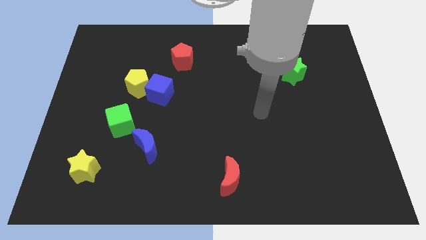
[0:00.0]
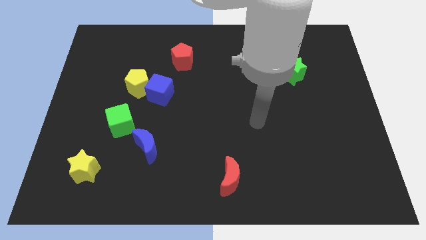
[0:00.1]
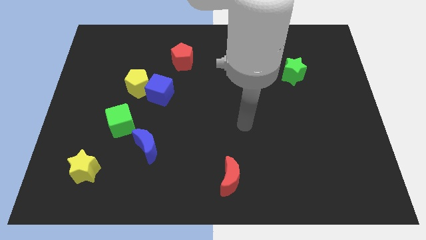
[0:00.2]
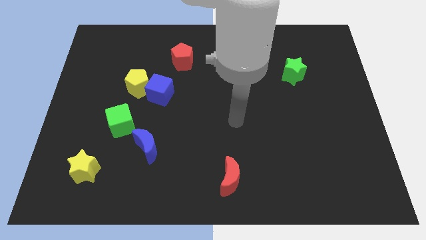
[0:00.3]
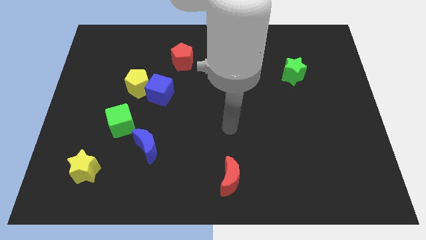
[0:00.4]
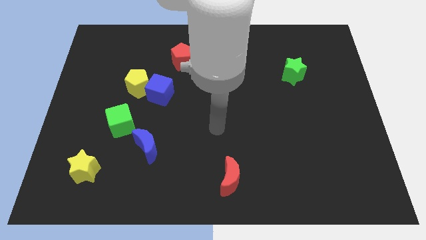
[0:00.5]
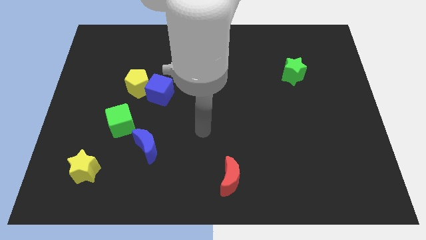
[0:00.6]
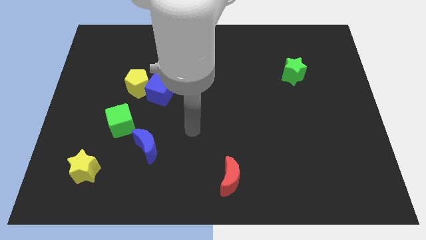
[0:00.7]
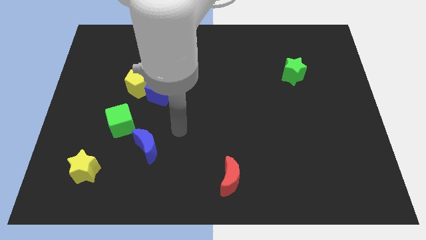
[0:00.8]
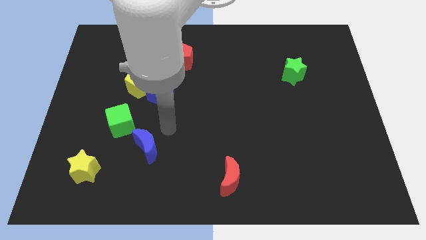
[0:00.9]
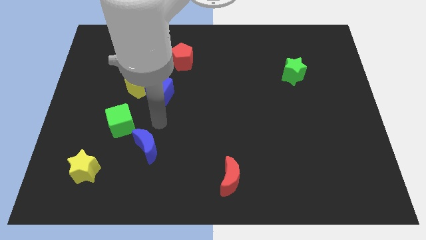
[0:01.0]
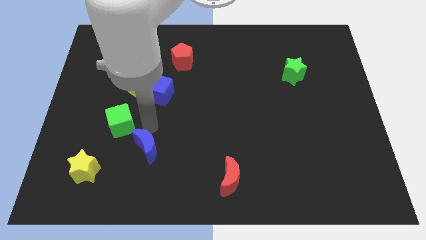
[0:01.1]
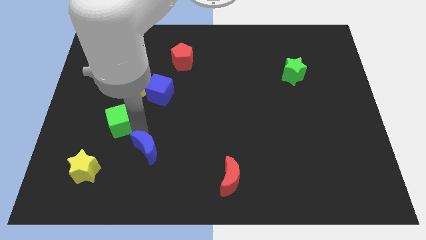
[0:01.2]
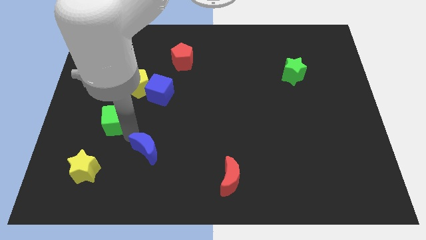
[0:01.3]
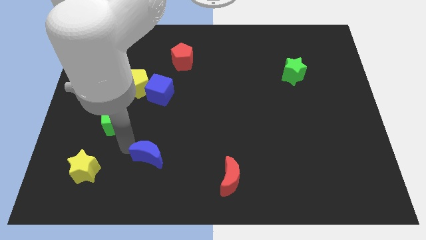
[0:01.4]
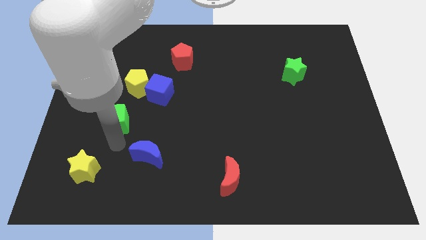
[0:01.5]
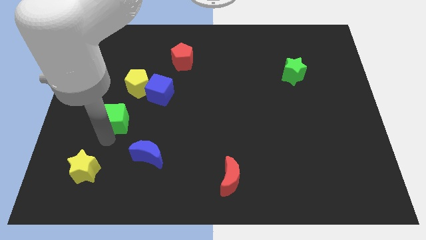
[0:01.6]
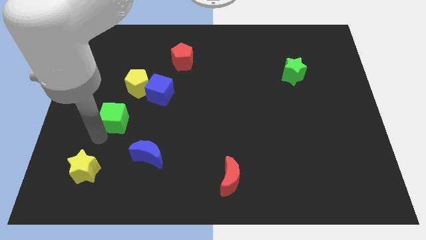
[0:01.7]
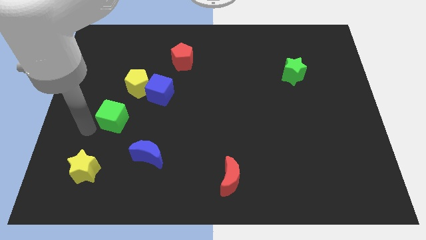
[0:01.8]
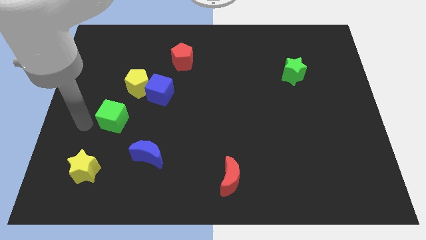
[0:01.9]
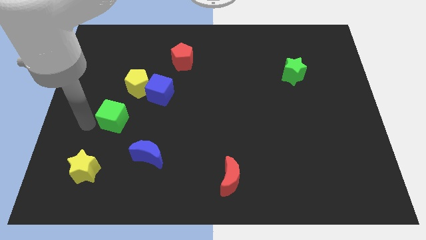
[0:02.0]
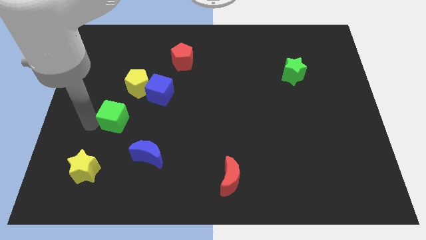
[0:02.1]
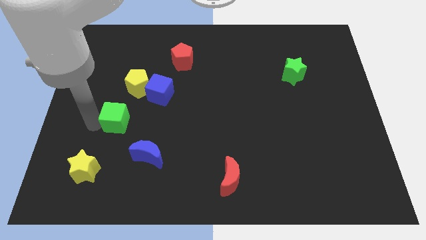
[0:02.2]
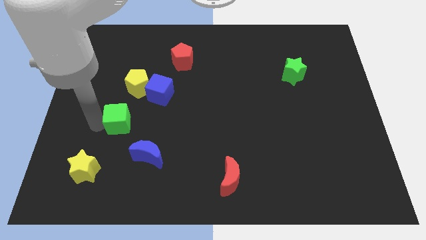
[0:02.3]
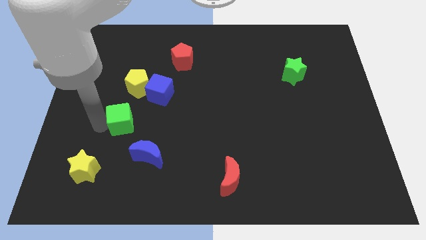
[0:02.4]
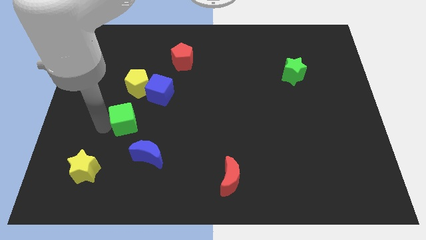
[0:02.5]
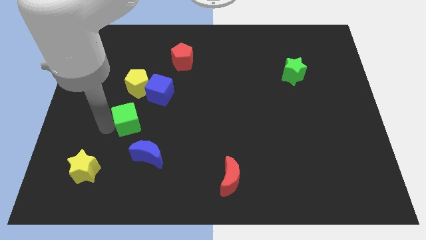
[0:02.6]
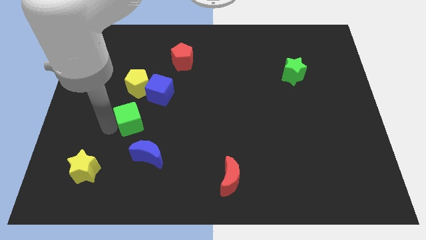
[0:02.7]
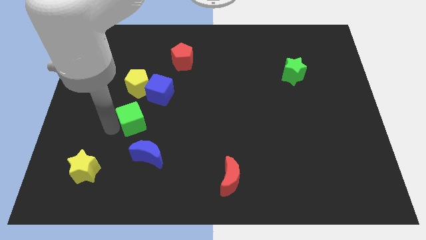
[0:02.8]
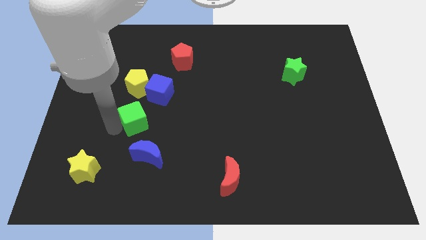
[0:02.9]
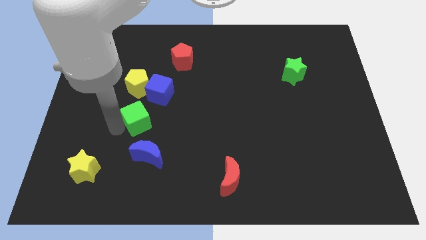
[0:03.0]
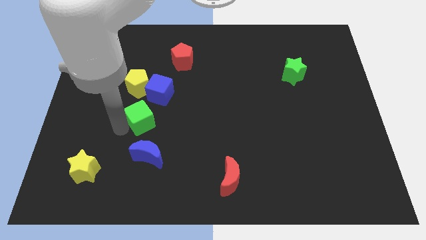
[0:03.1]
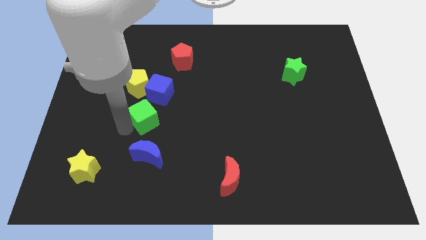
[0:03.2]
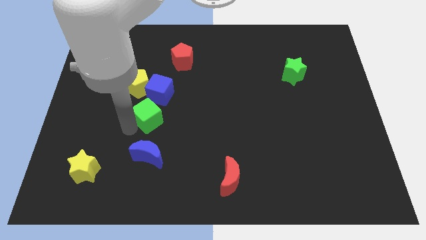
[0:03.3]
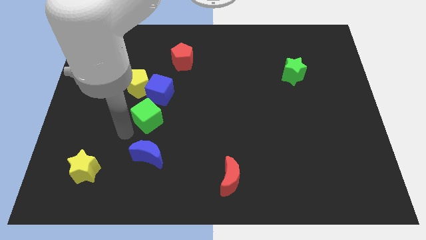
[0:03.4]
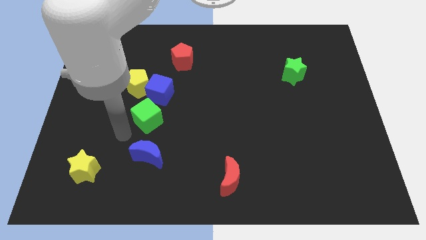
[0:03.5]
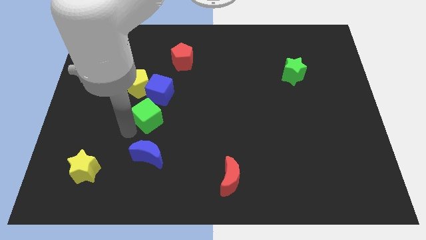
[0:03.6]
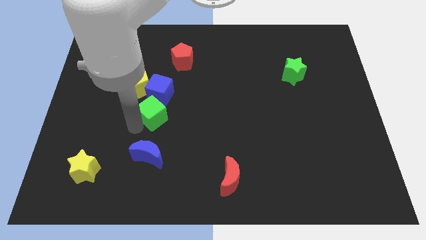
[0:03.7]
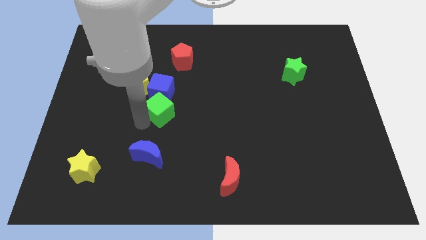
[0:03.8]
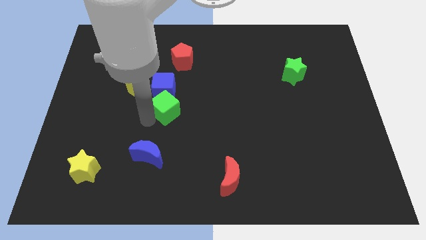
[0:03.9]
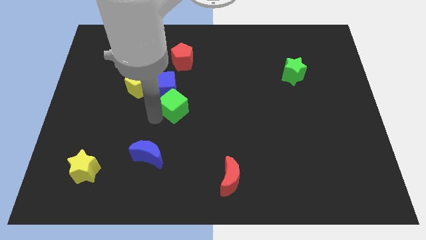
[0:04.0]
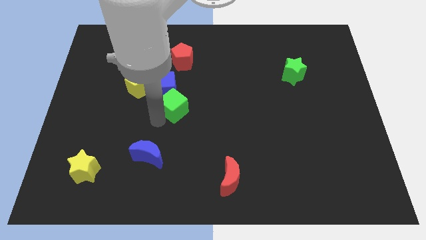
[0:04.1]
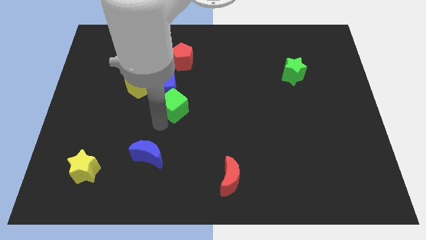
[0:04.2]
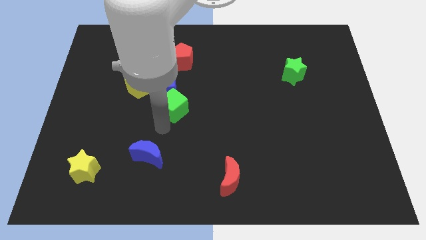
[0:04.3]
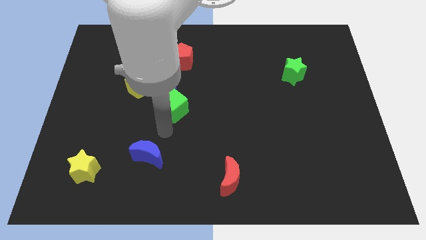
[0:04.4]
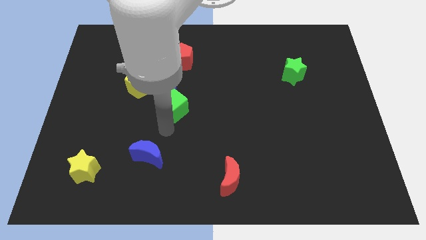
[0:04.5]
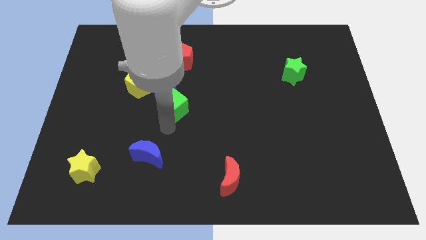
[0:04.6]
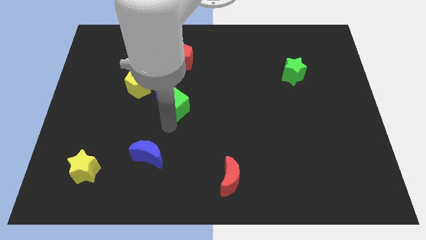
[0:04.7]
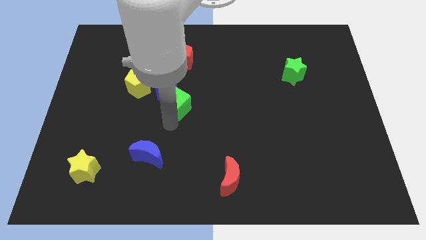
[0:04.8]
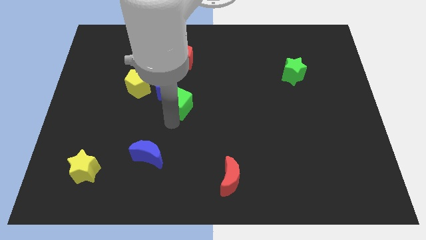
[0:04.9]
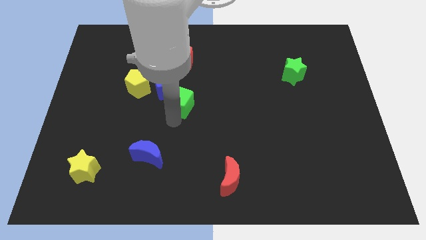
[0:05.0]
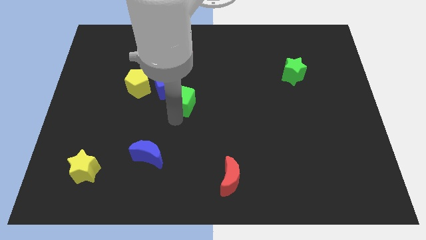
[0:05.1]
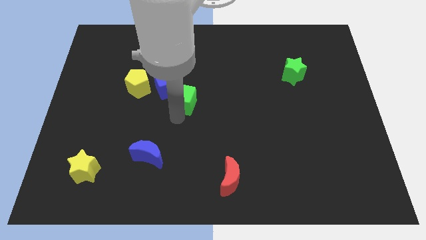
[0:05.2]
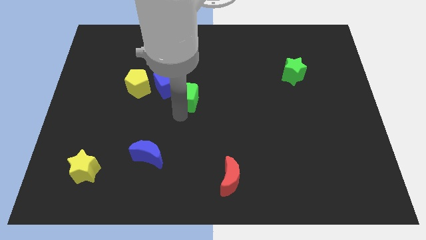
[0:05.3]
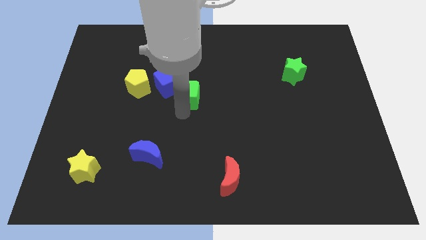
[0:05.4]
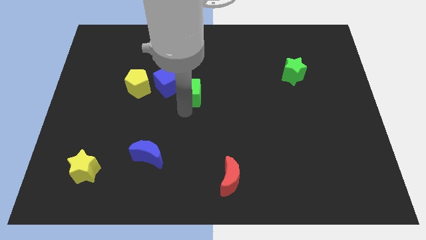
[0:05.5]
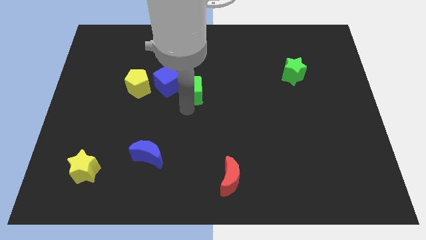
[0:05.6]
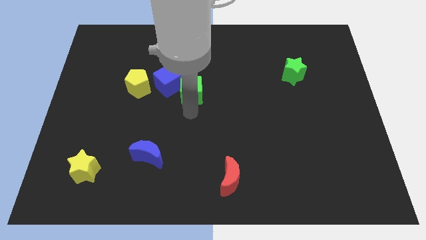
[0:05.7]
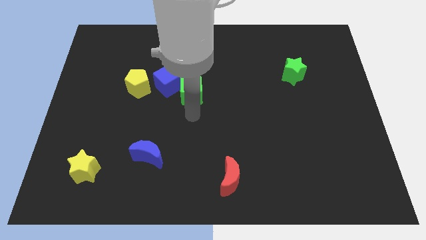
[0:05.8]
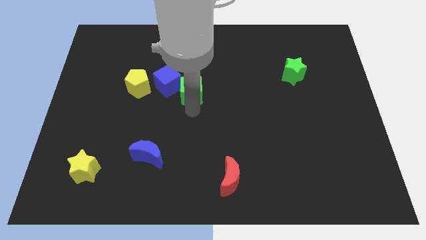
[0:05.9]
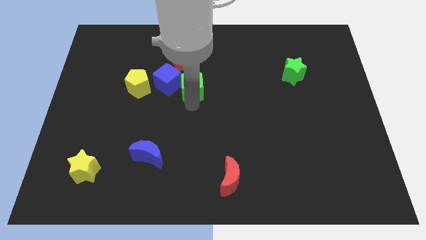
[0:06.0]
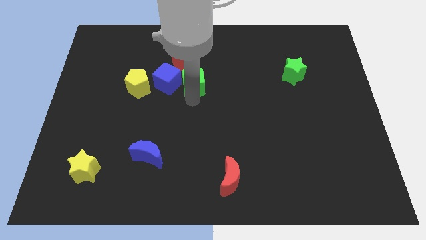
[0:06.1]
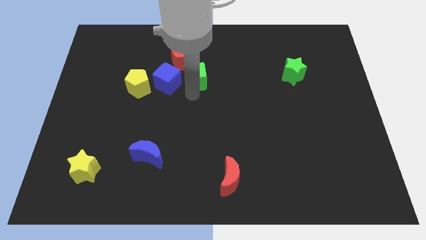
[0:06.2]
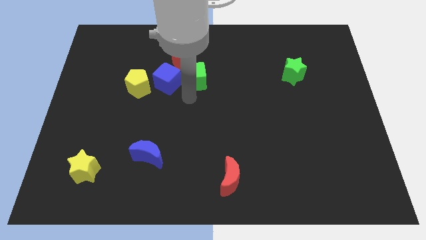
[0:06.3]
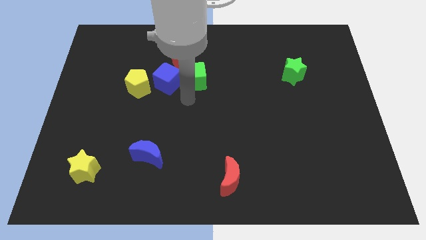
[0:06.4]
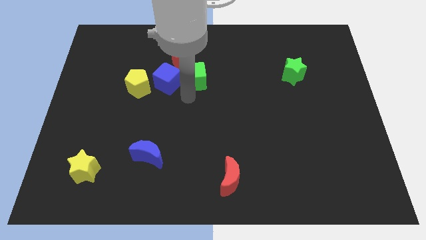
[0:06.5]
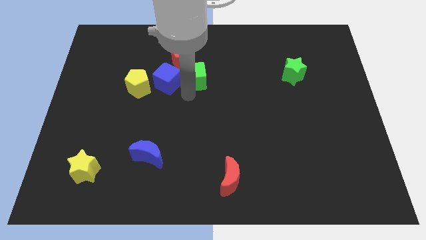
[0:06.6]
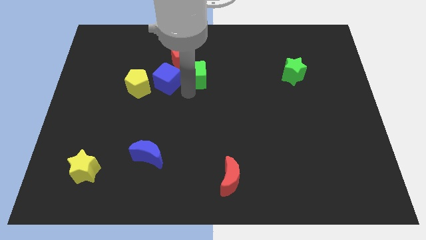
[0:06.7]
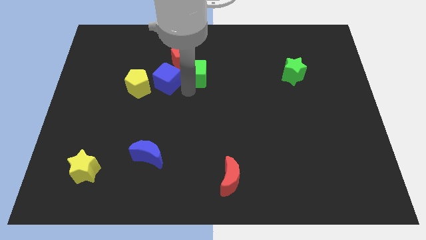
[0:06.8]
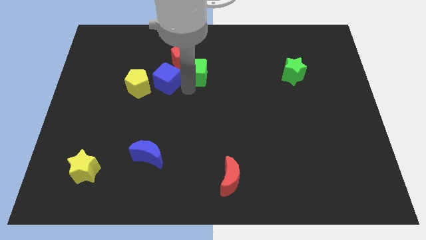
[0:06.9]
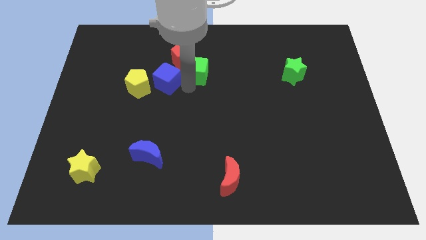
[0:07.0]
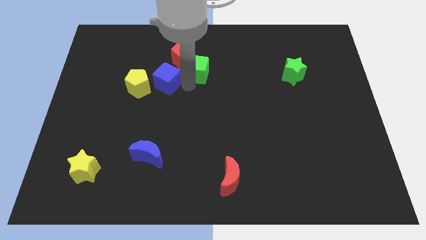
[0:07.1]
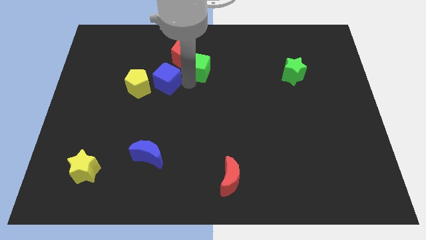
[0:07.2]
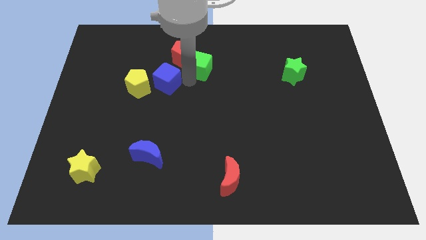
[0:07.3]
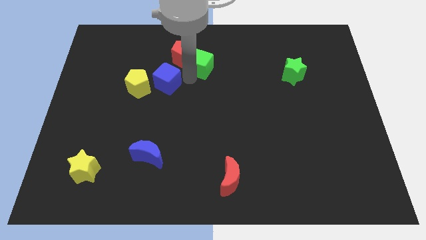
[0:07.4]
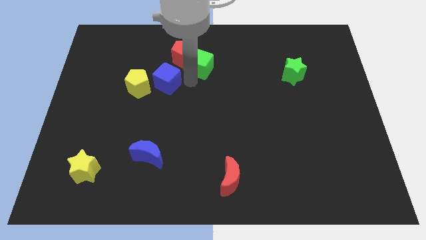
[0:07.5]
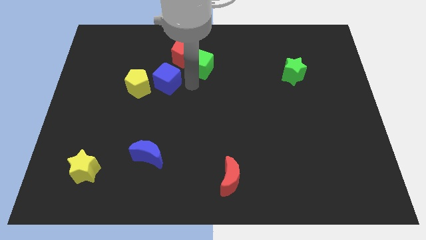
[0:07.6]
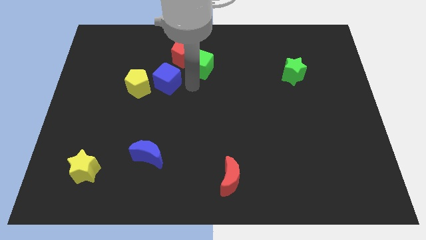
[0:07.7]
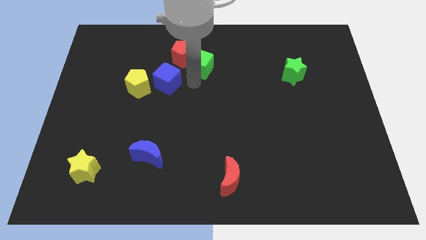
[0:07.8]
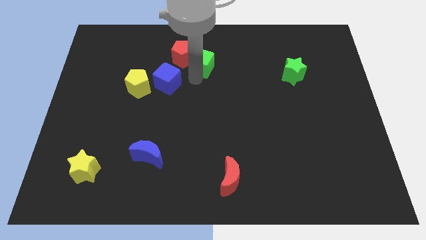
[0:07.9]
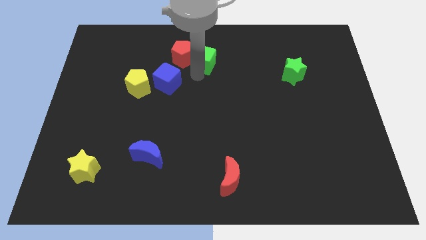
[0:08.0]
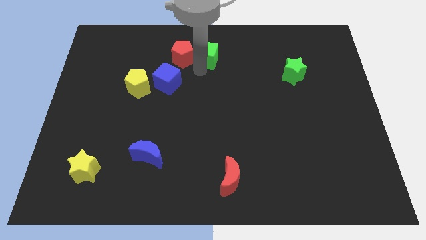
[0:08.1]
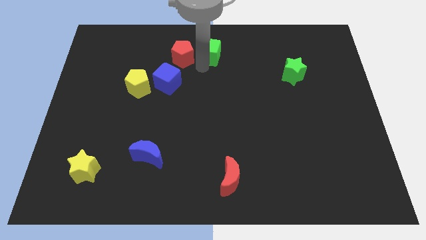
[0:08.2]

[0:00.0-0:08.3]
put the green cube to the towards your base
